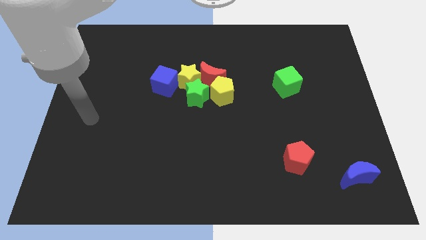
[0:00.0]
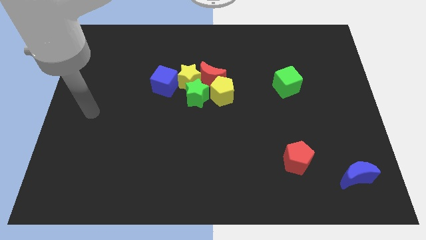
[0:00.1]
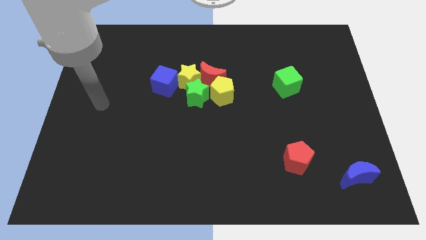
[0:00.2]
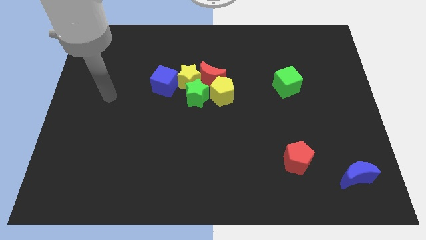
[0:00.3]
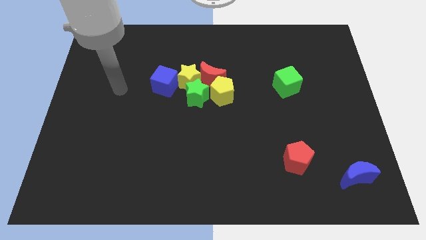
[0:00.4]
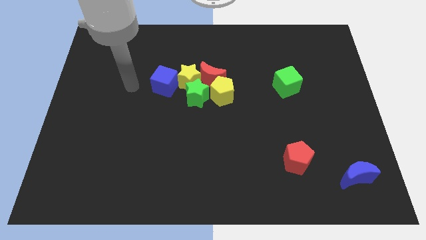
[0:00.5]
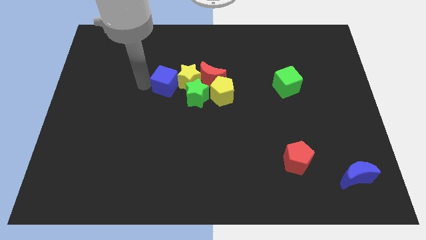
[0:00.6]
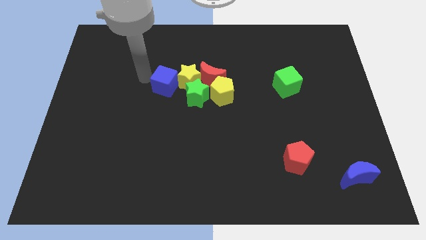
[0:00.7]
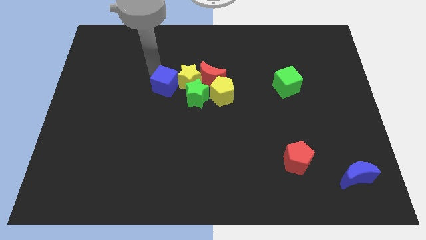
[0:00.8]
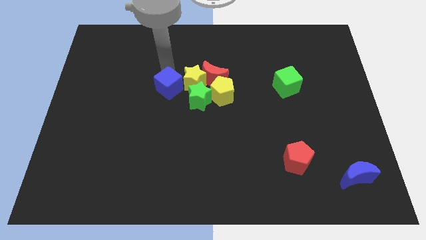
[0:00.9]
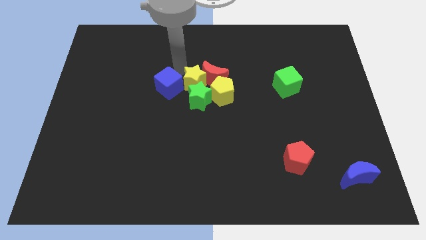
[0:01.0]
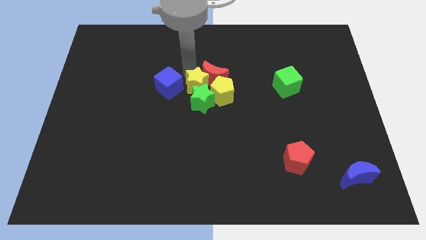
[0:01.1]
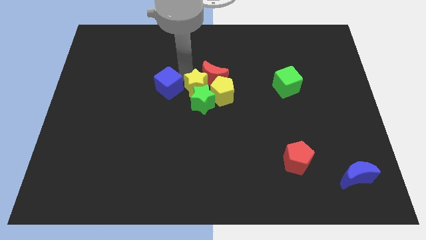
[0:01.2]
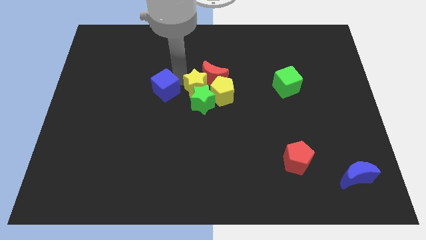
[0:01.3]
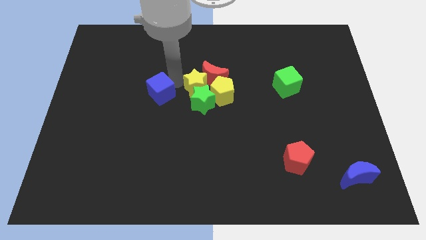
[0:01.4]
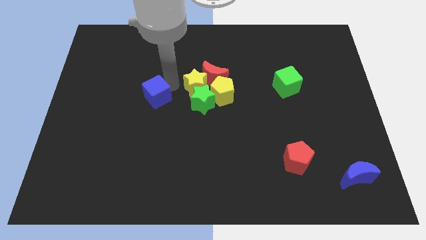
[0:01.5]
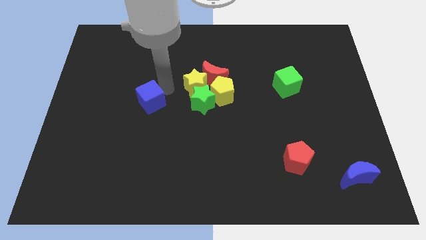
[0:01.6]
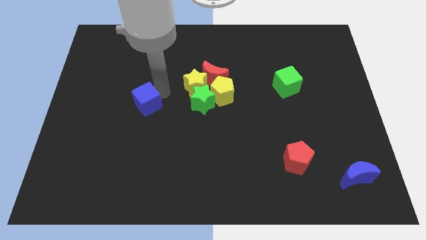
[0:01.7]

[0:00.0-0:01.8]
slide the blue cube a bit diagonally down and to the left

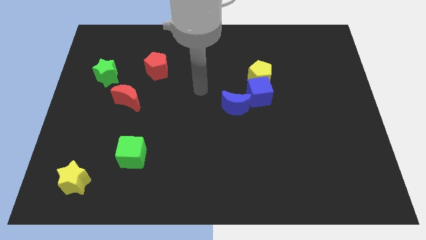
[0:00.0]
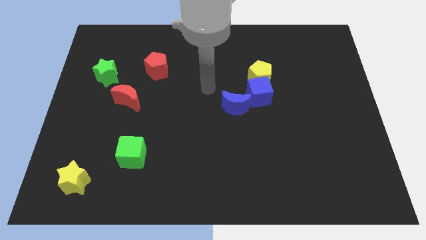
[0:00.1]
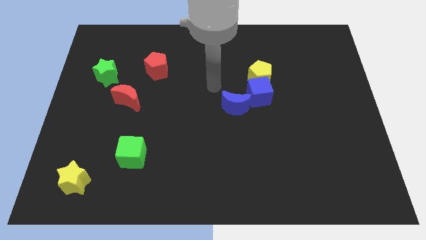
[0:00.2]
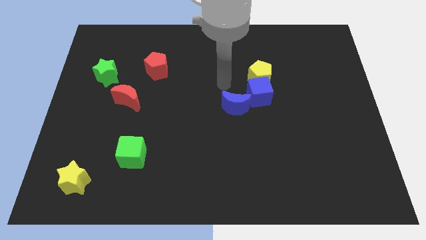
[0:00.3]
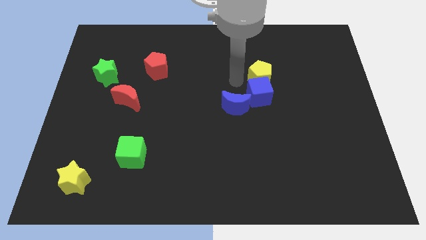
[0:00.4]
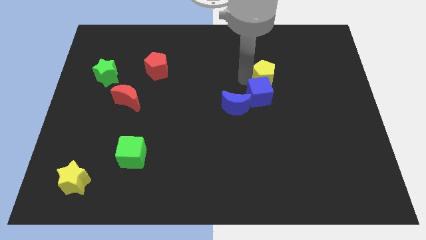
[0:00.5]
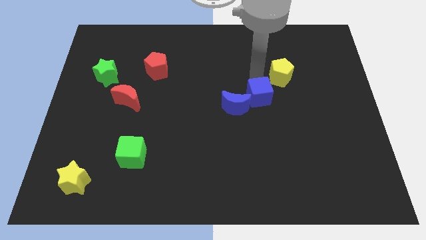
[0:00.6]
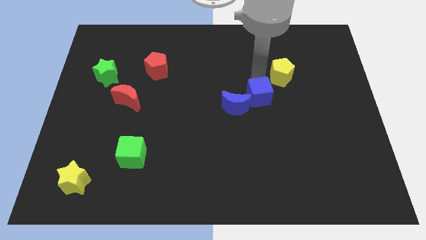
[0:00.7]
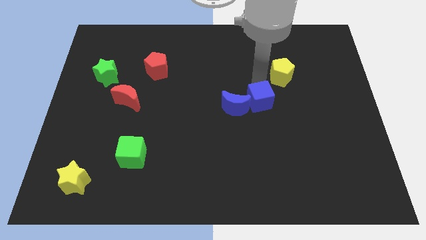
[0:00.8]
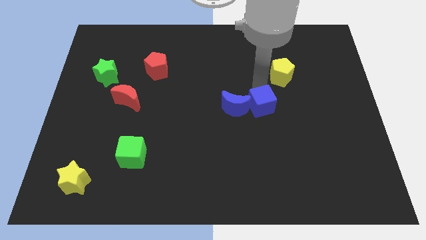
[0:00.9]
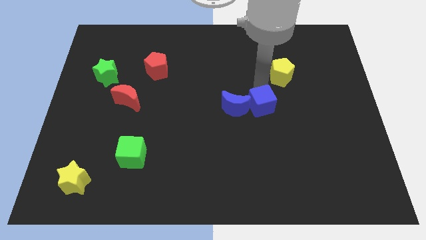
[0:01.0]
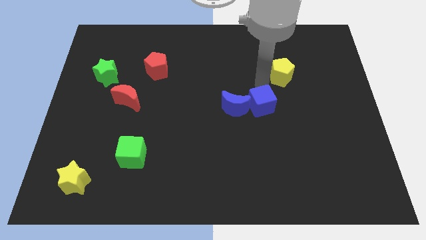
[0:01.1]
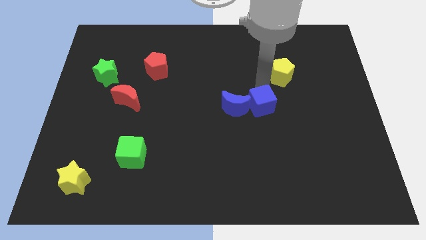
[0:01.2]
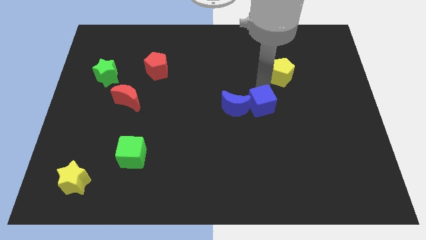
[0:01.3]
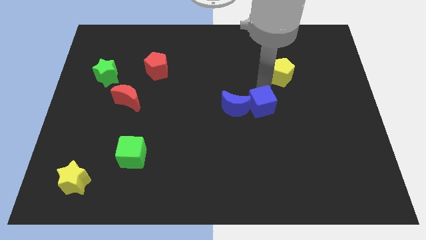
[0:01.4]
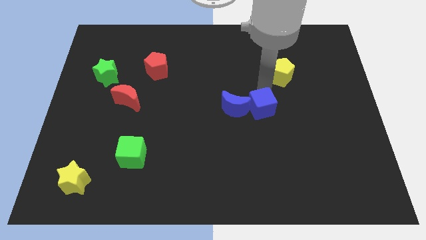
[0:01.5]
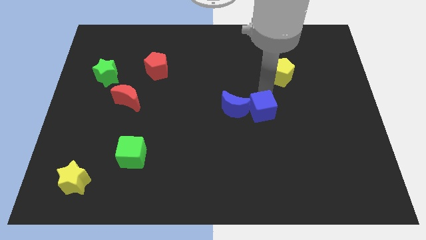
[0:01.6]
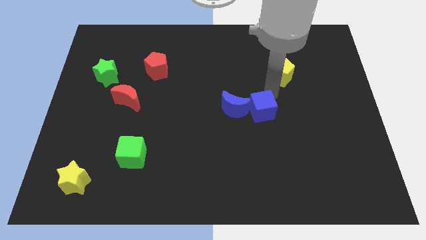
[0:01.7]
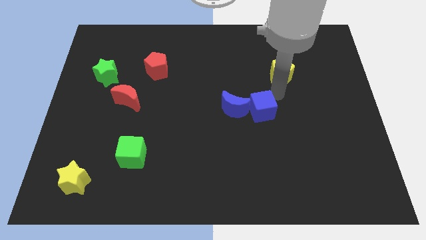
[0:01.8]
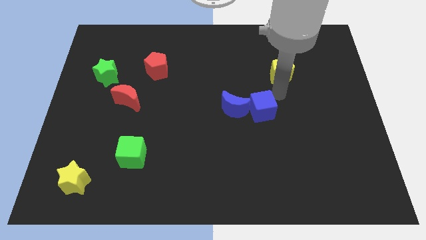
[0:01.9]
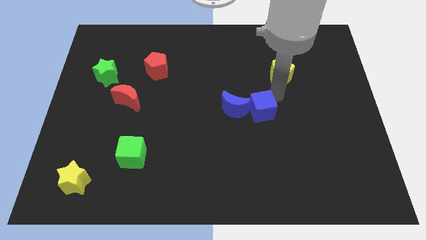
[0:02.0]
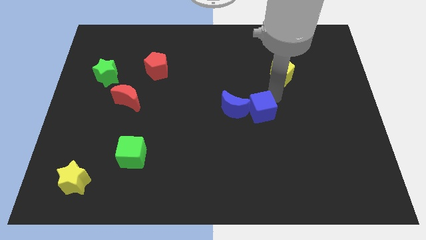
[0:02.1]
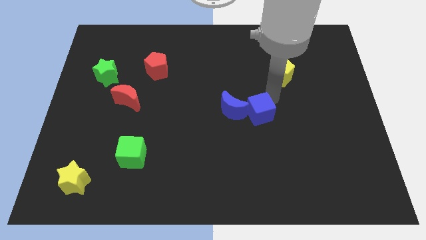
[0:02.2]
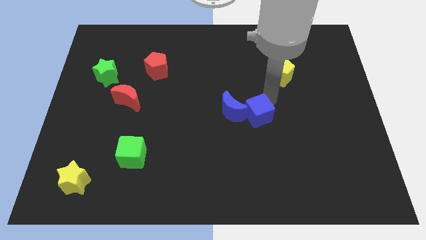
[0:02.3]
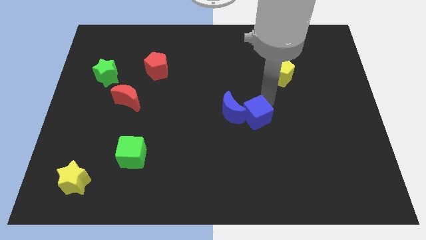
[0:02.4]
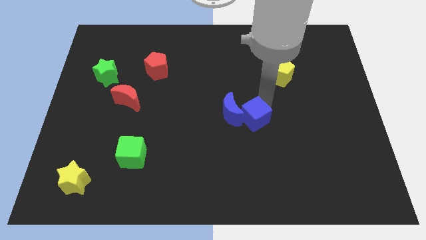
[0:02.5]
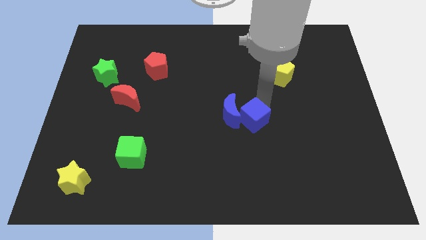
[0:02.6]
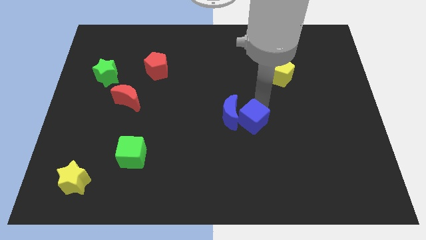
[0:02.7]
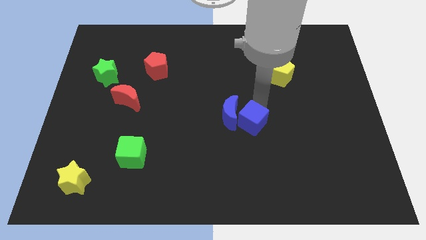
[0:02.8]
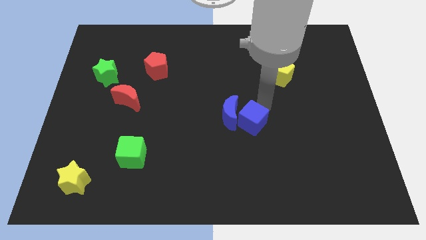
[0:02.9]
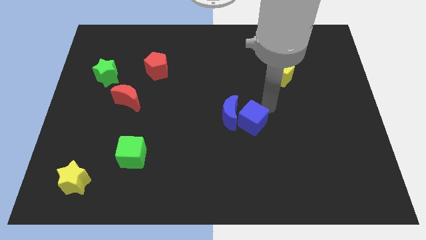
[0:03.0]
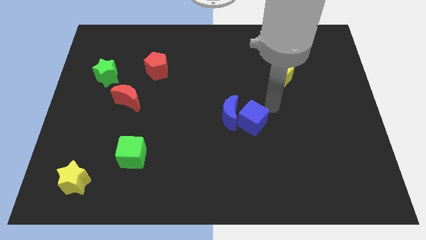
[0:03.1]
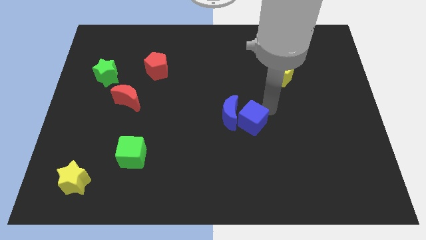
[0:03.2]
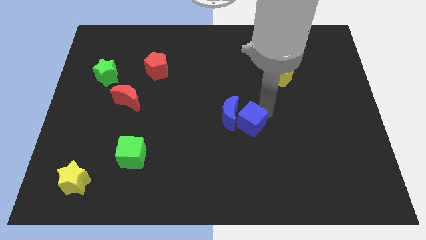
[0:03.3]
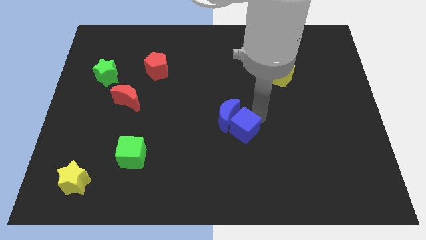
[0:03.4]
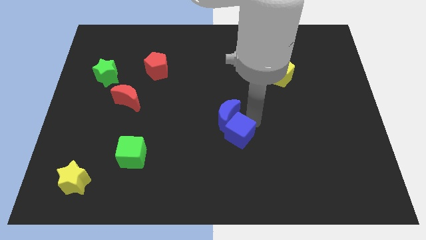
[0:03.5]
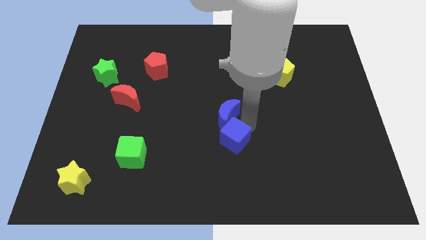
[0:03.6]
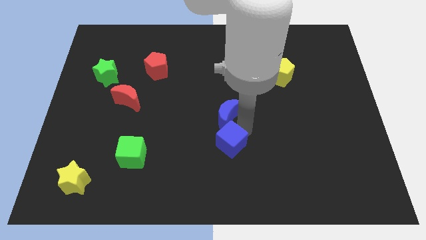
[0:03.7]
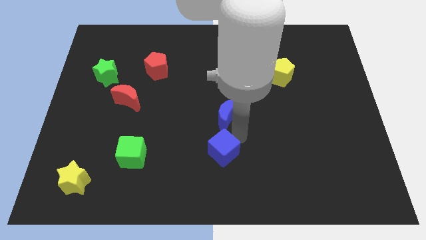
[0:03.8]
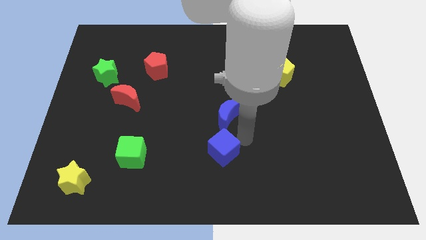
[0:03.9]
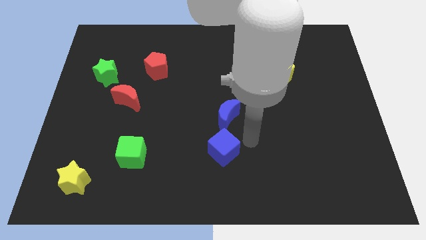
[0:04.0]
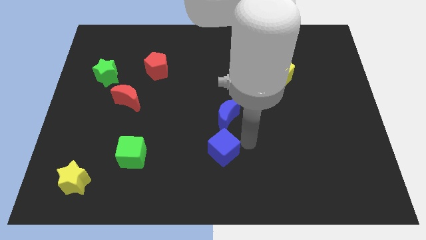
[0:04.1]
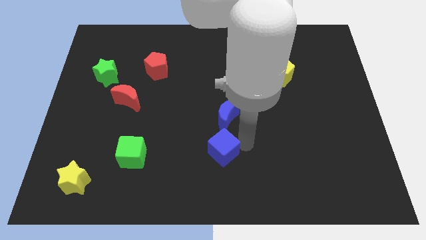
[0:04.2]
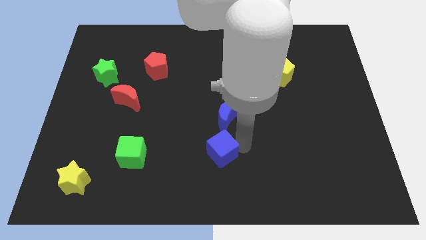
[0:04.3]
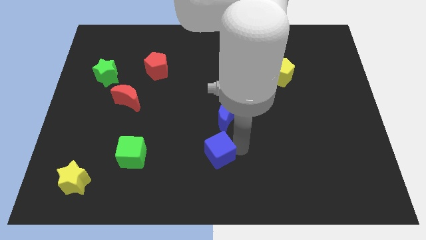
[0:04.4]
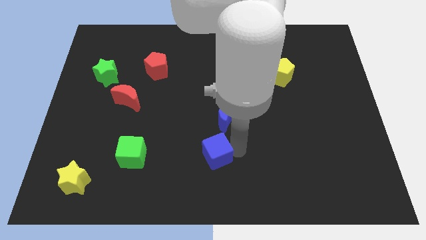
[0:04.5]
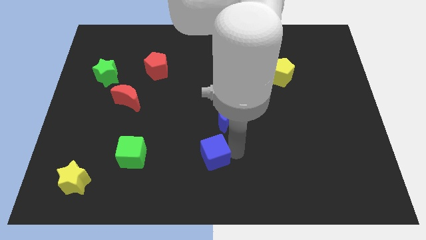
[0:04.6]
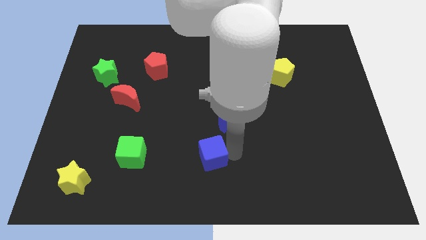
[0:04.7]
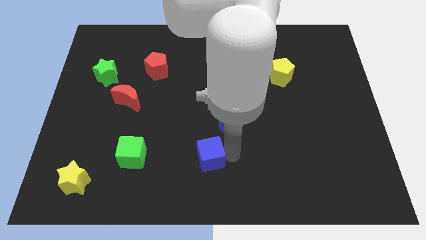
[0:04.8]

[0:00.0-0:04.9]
move the blue cube diagonally down and left

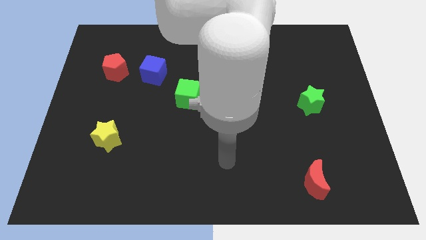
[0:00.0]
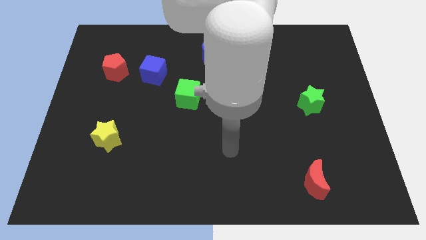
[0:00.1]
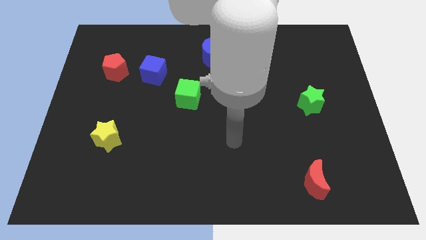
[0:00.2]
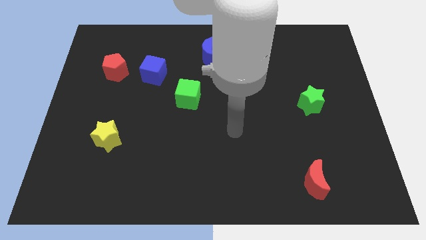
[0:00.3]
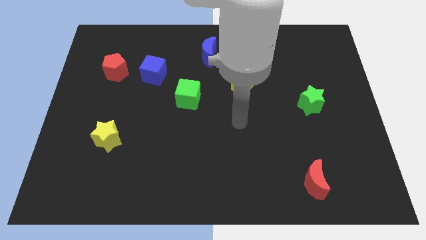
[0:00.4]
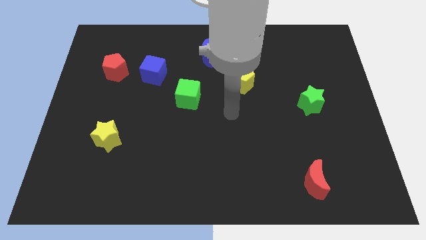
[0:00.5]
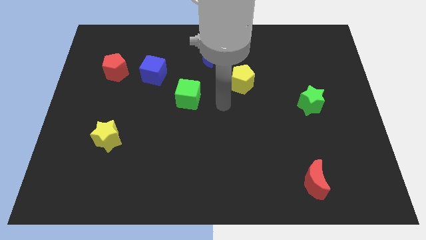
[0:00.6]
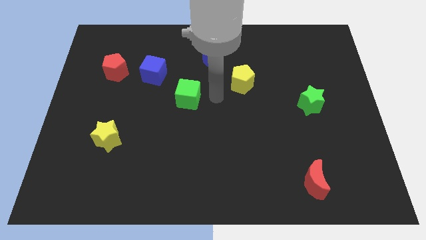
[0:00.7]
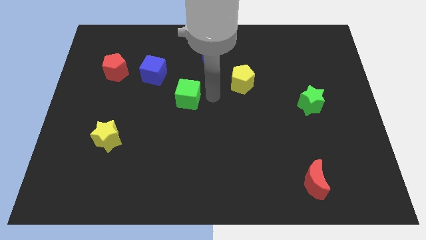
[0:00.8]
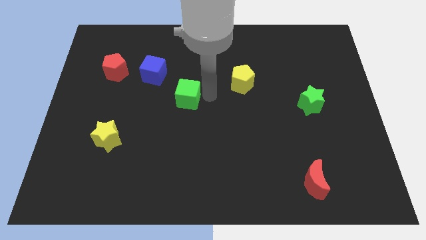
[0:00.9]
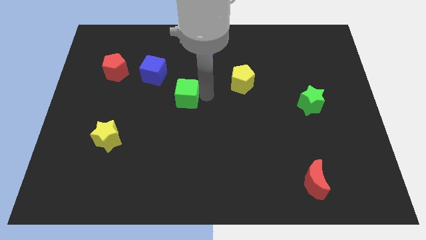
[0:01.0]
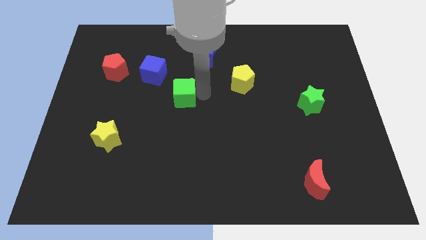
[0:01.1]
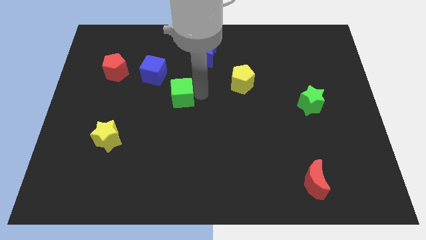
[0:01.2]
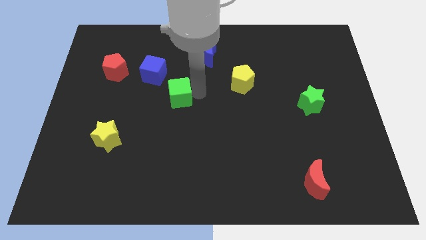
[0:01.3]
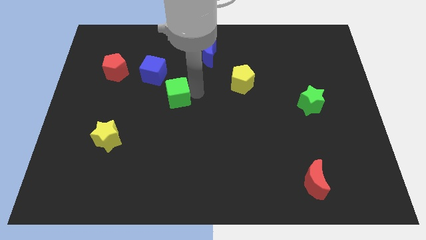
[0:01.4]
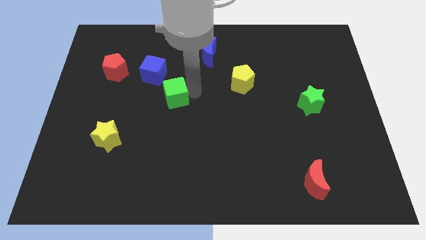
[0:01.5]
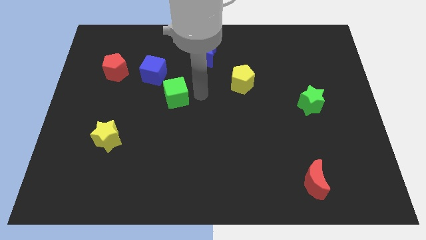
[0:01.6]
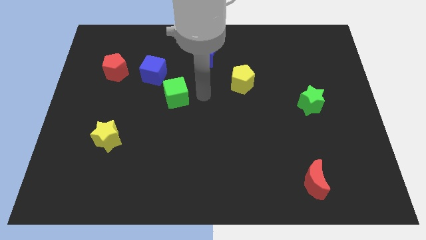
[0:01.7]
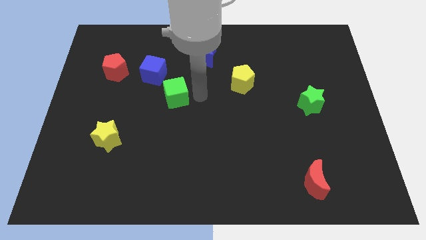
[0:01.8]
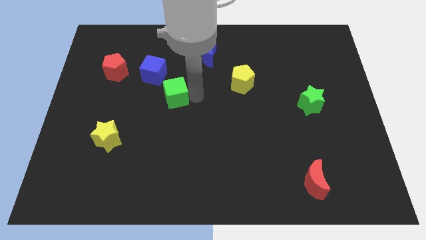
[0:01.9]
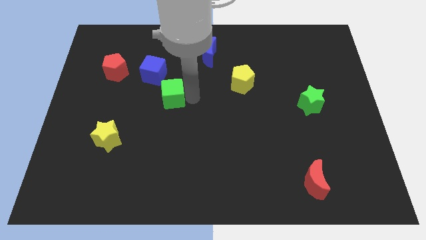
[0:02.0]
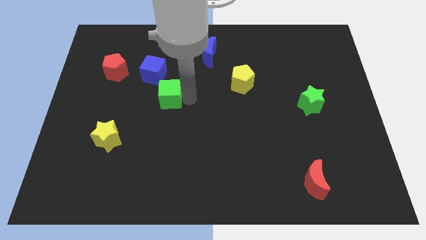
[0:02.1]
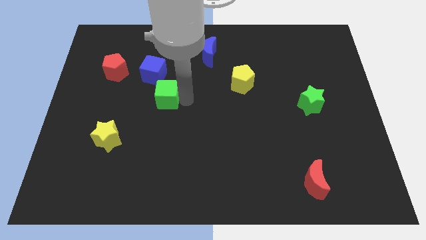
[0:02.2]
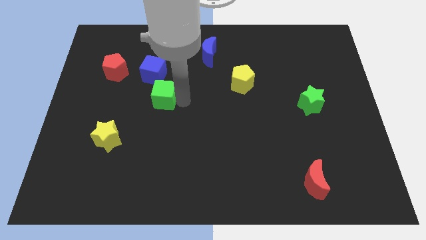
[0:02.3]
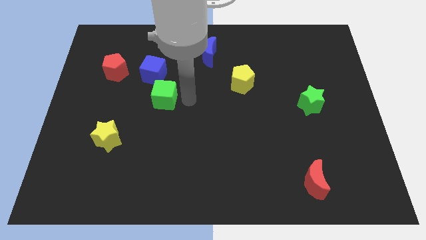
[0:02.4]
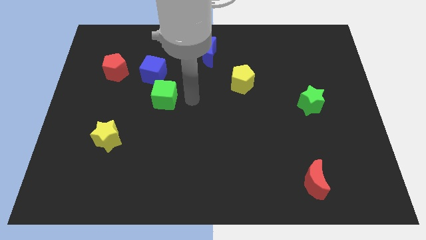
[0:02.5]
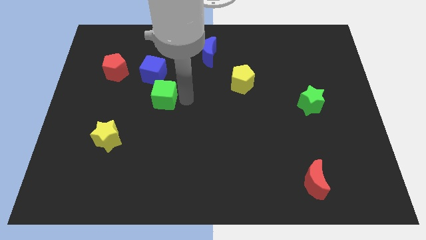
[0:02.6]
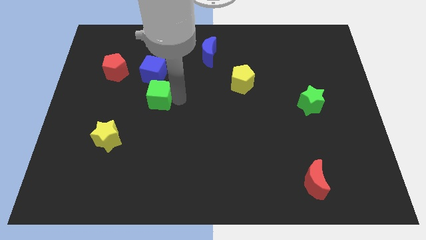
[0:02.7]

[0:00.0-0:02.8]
move the green cube somewhat left
